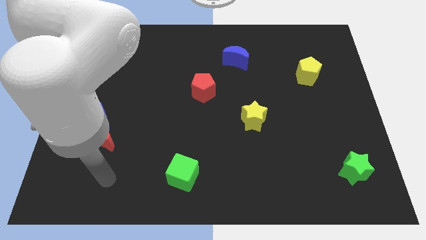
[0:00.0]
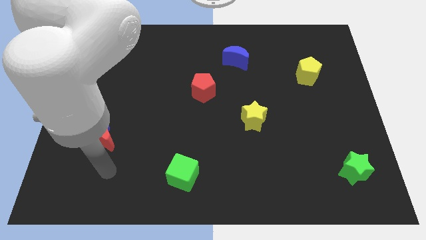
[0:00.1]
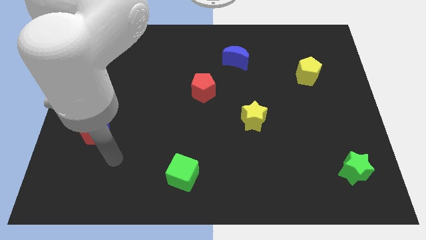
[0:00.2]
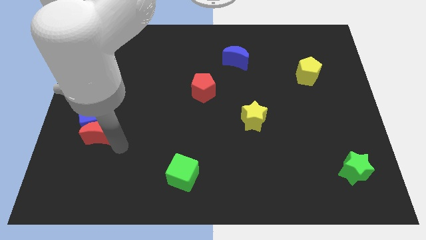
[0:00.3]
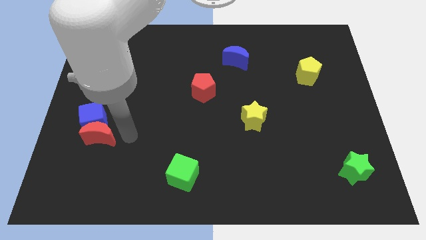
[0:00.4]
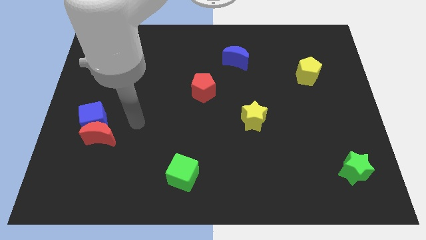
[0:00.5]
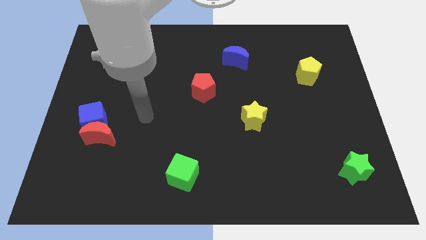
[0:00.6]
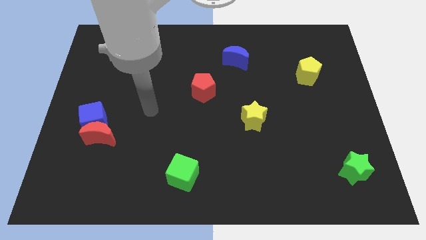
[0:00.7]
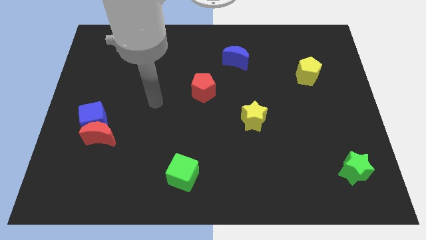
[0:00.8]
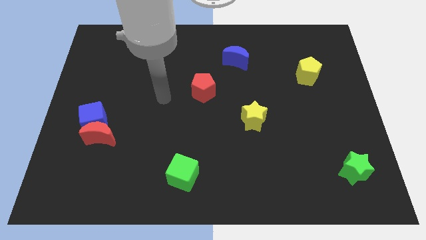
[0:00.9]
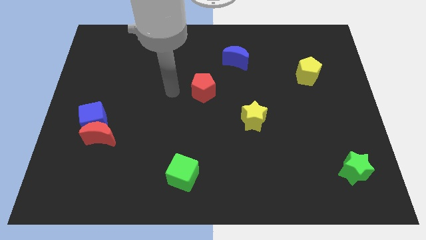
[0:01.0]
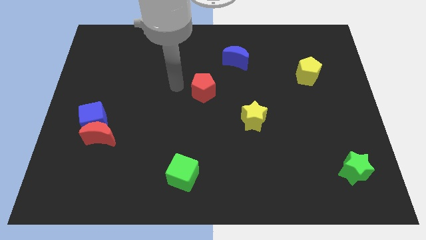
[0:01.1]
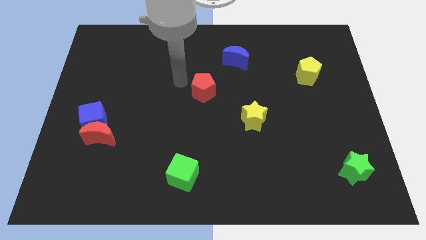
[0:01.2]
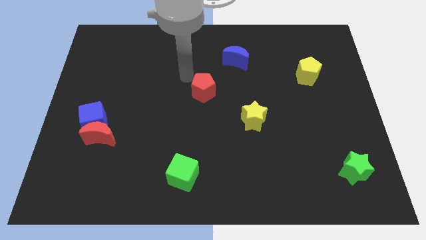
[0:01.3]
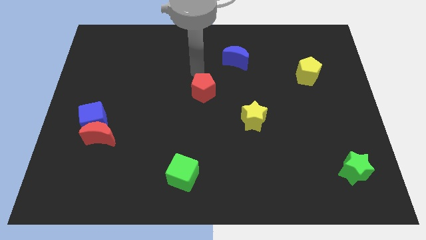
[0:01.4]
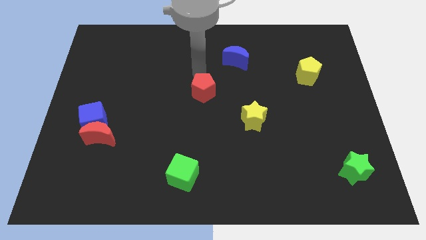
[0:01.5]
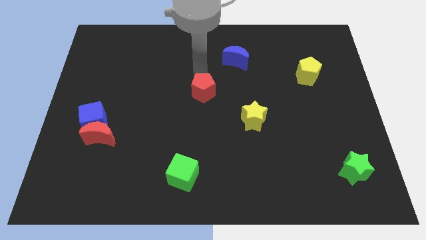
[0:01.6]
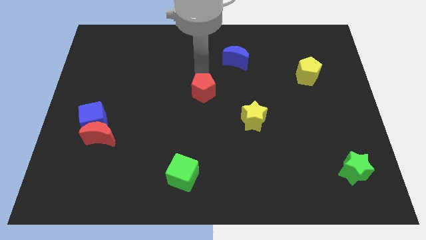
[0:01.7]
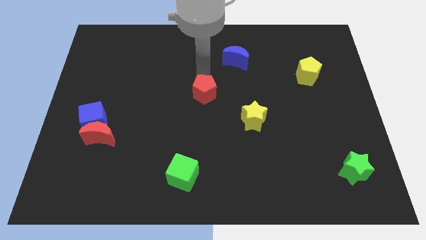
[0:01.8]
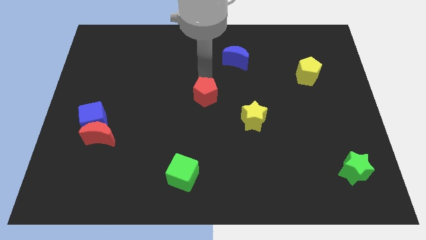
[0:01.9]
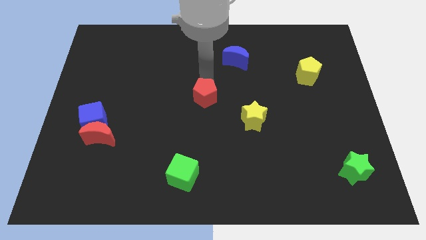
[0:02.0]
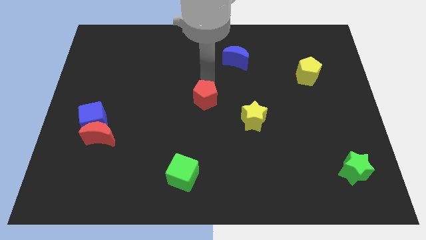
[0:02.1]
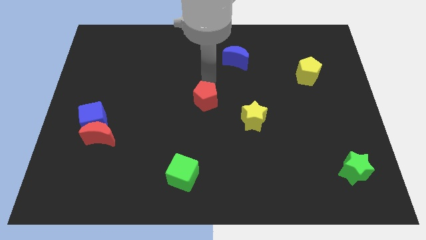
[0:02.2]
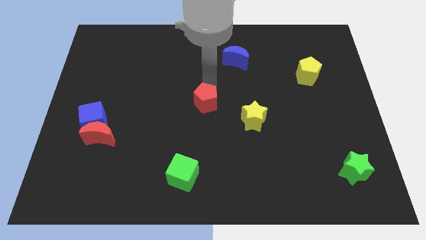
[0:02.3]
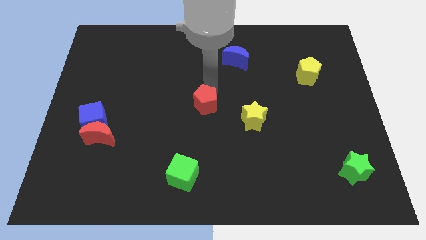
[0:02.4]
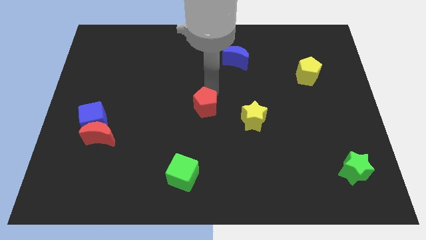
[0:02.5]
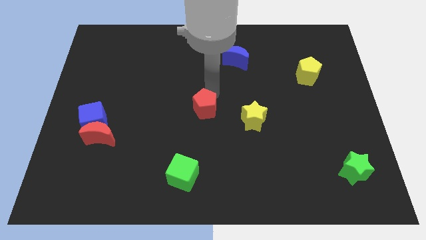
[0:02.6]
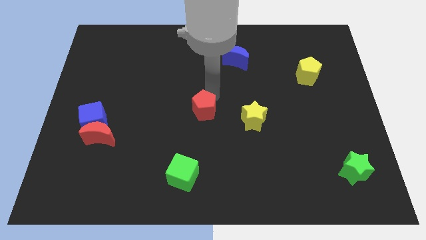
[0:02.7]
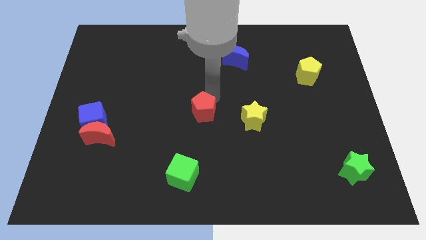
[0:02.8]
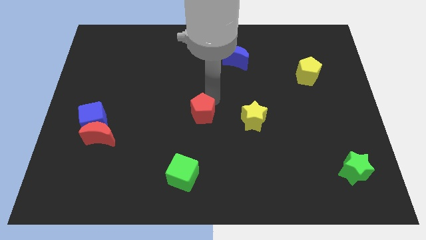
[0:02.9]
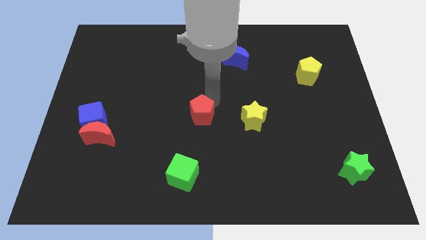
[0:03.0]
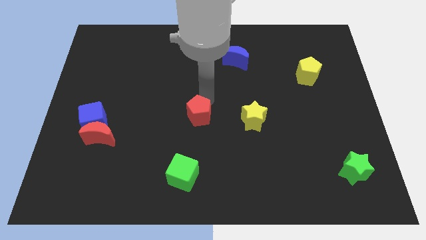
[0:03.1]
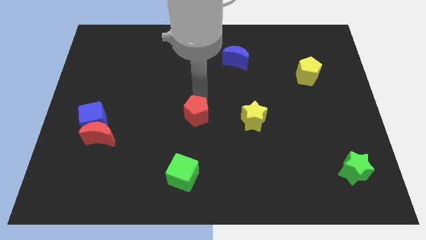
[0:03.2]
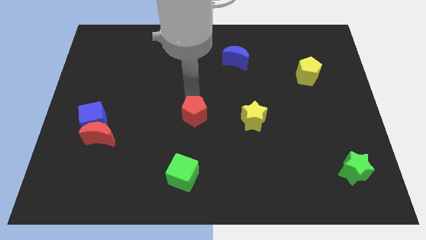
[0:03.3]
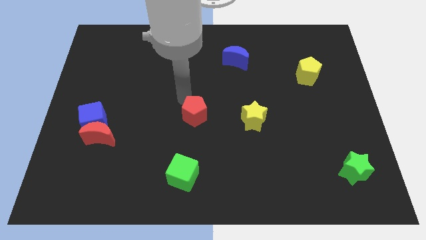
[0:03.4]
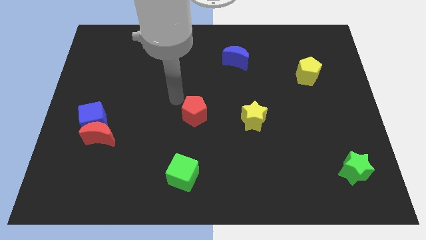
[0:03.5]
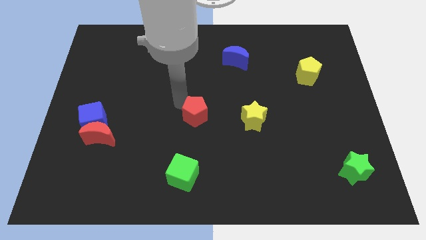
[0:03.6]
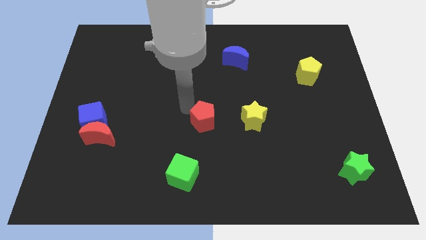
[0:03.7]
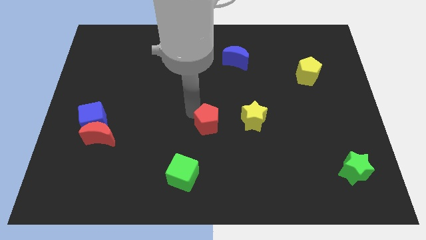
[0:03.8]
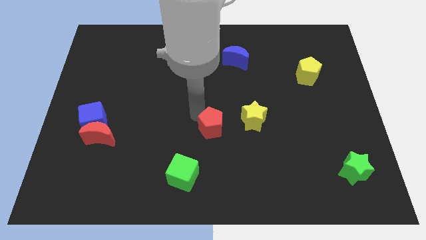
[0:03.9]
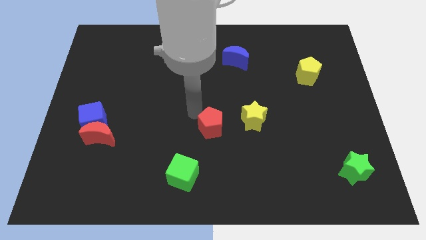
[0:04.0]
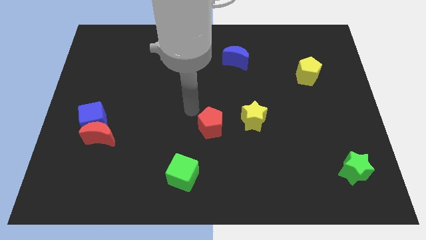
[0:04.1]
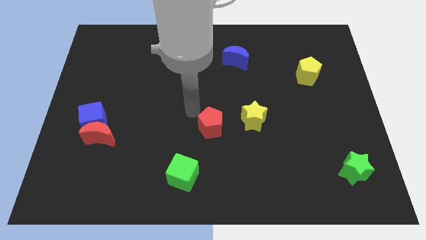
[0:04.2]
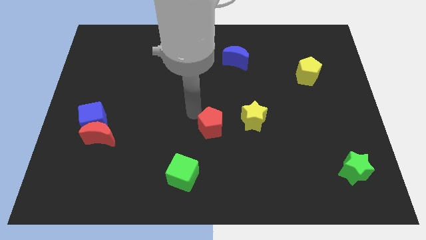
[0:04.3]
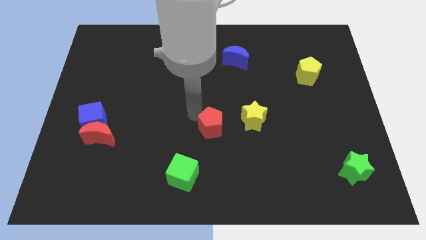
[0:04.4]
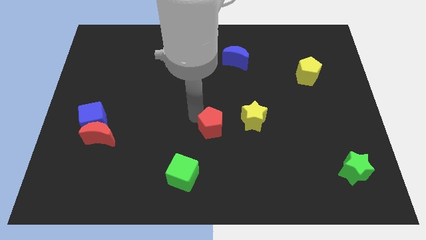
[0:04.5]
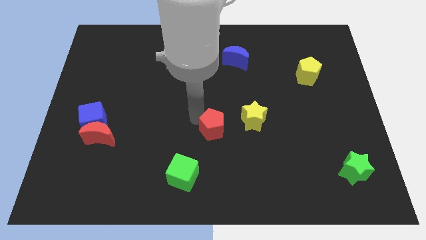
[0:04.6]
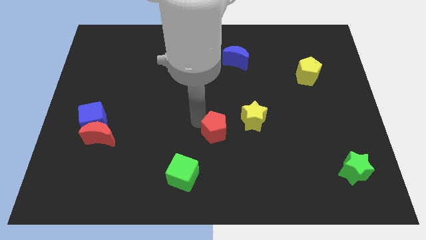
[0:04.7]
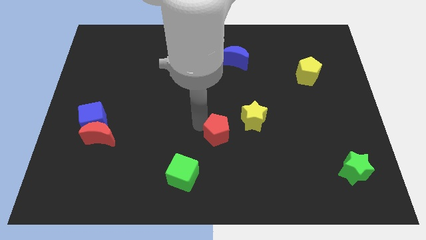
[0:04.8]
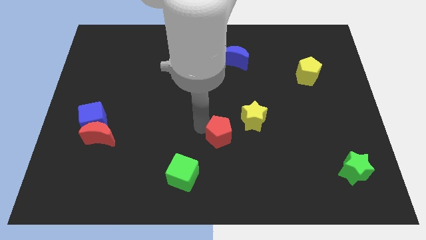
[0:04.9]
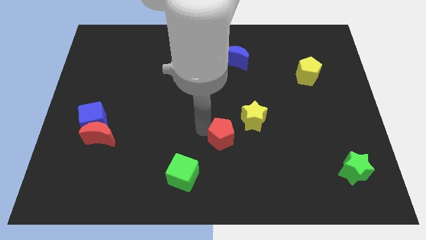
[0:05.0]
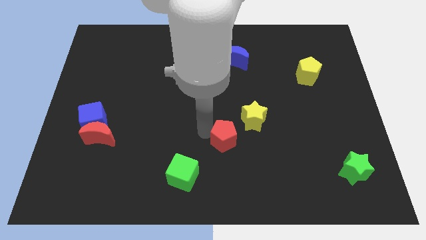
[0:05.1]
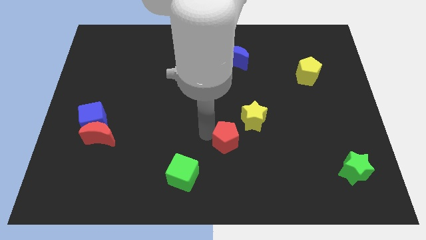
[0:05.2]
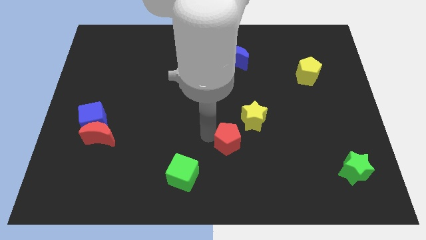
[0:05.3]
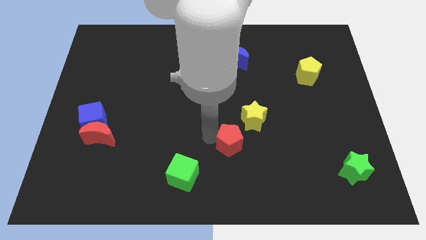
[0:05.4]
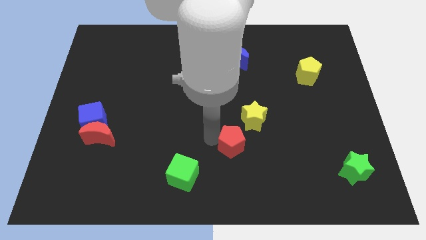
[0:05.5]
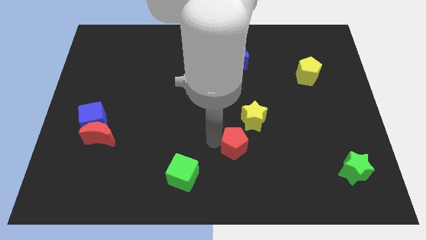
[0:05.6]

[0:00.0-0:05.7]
push the red pentagon to the bottom side of the yellow star

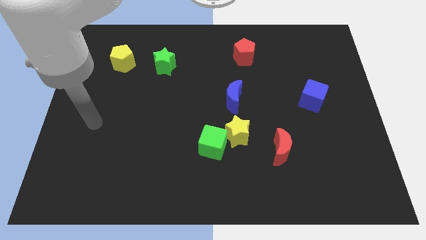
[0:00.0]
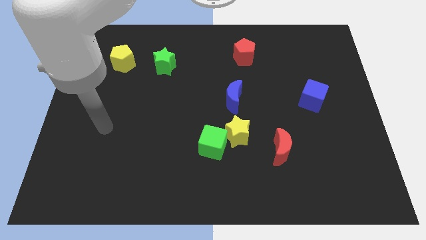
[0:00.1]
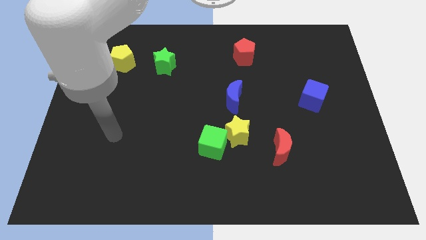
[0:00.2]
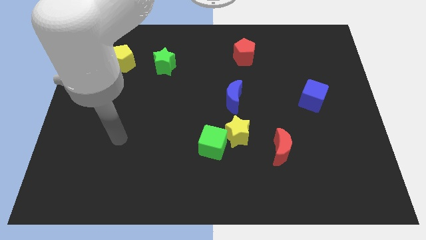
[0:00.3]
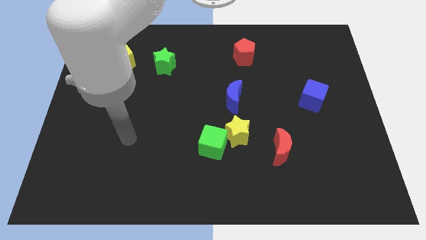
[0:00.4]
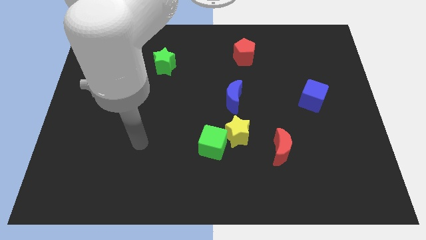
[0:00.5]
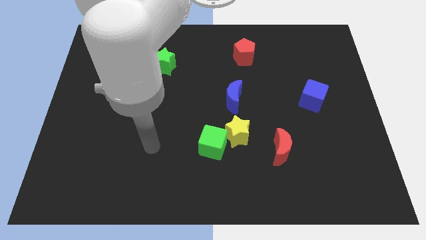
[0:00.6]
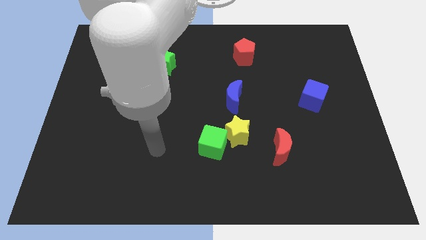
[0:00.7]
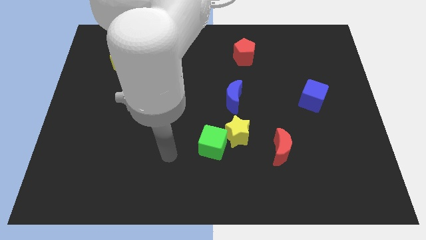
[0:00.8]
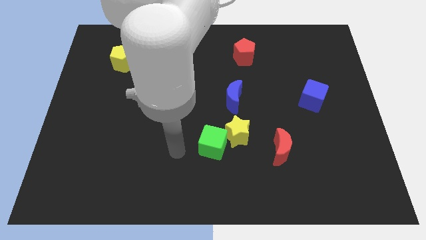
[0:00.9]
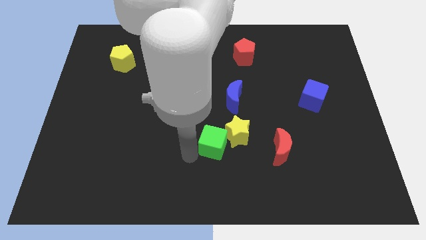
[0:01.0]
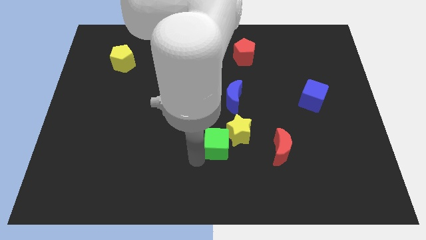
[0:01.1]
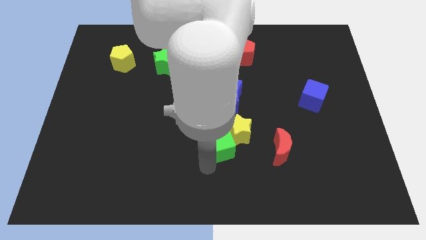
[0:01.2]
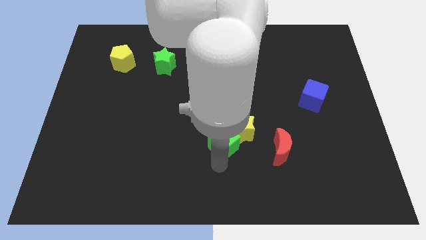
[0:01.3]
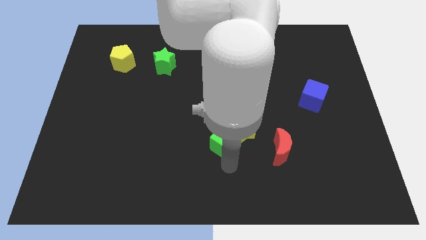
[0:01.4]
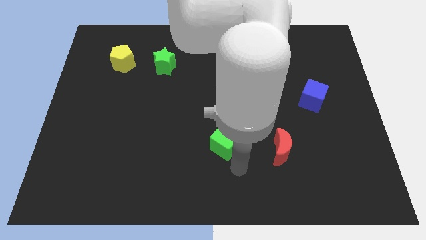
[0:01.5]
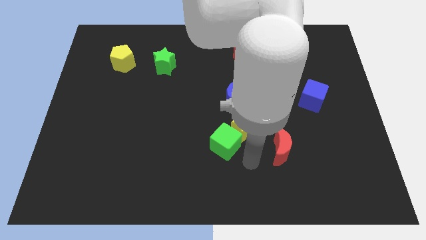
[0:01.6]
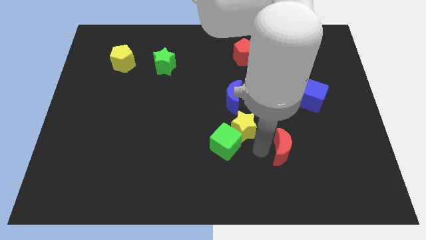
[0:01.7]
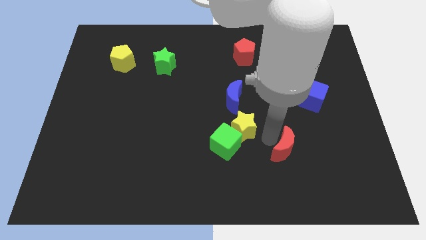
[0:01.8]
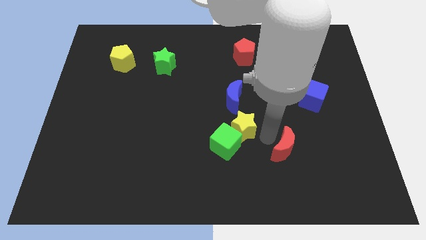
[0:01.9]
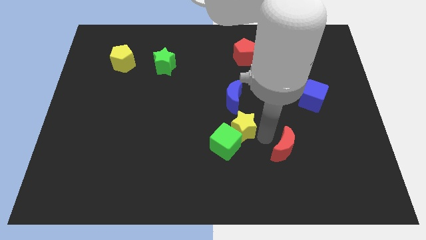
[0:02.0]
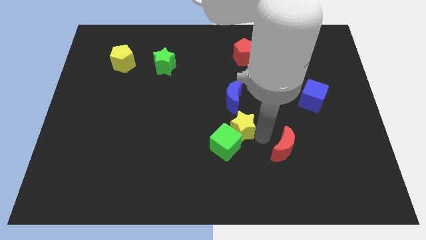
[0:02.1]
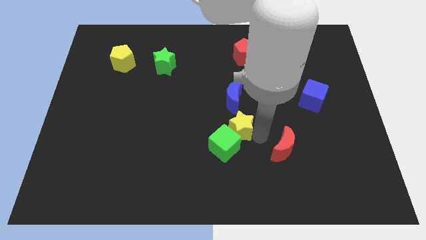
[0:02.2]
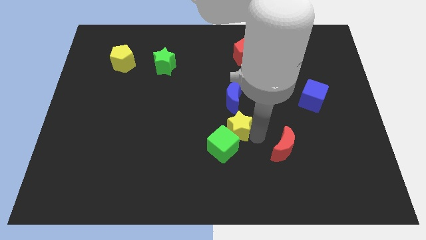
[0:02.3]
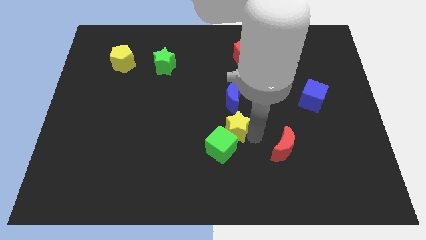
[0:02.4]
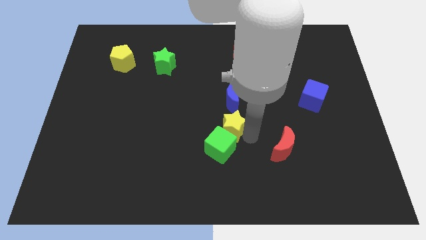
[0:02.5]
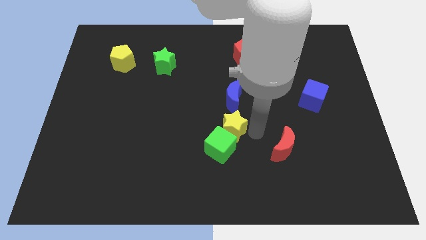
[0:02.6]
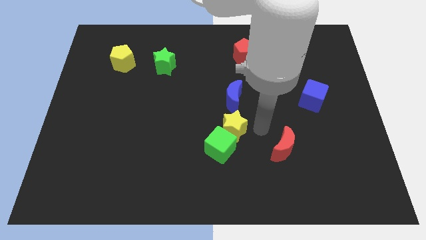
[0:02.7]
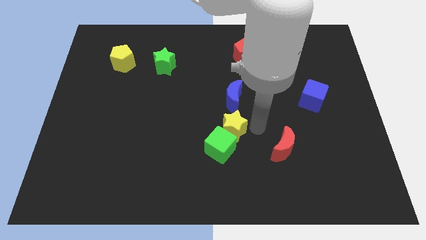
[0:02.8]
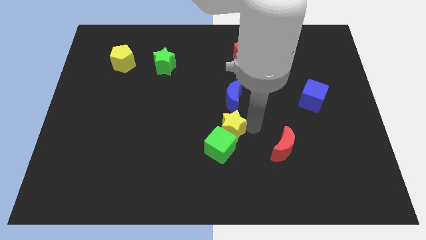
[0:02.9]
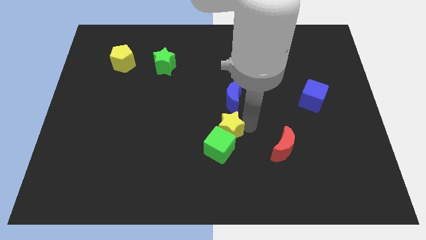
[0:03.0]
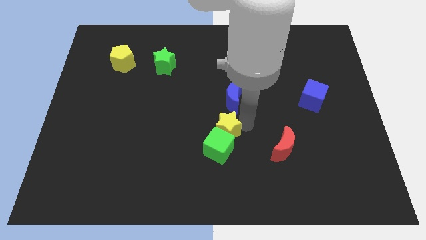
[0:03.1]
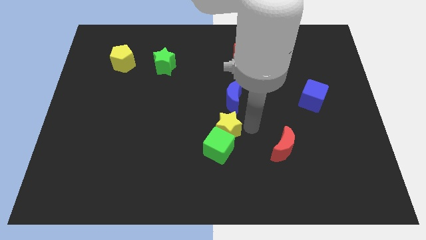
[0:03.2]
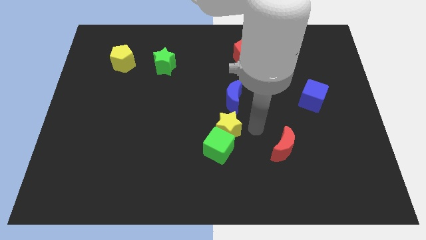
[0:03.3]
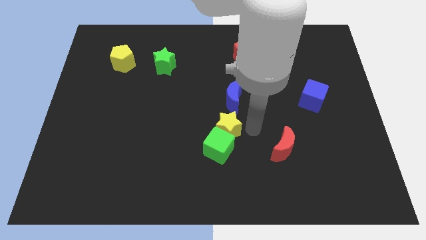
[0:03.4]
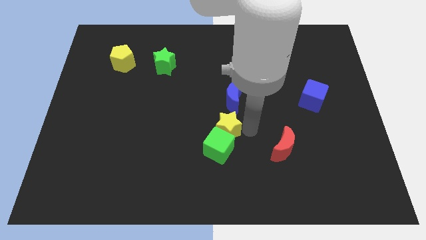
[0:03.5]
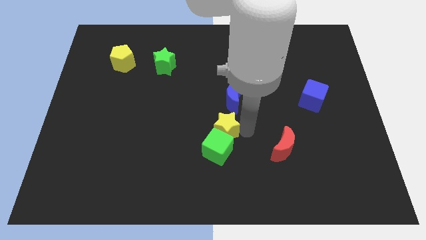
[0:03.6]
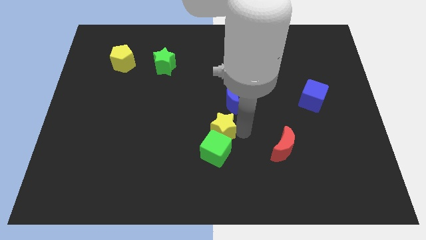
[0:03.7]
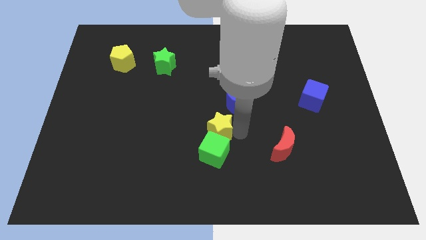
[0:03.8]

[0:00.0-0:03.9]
move the yellow star to the top left side of the green cube
